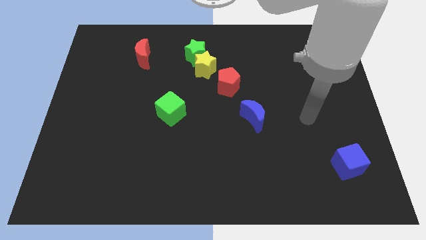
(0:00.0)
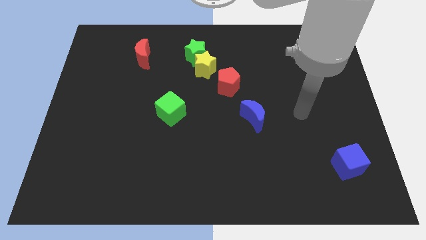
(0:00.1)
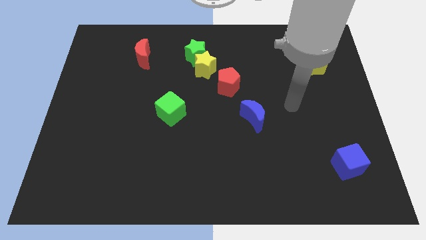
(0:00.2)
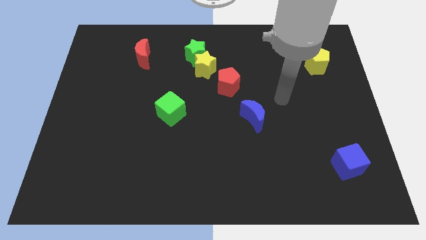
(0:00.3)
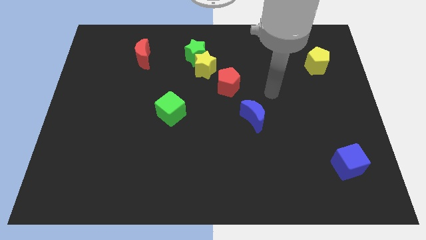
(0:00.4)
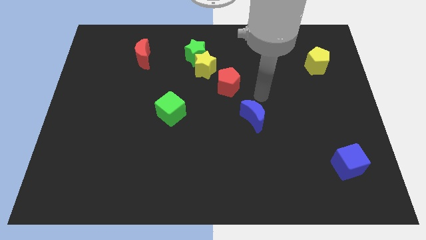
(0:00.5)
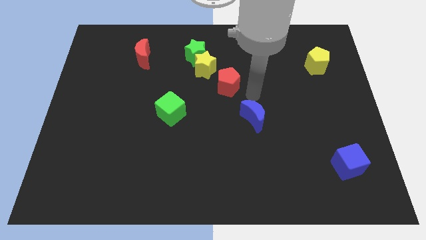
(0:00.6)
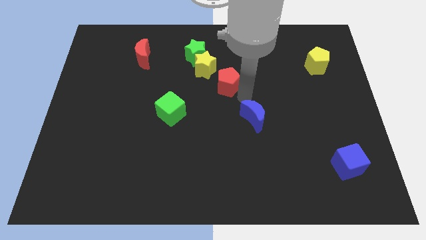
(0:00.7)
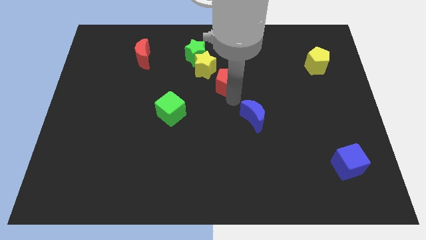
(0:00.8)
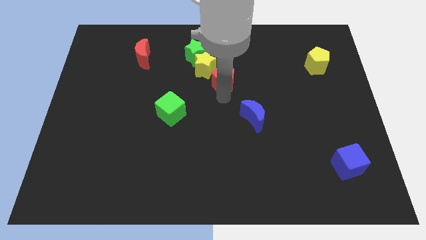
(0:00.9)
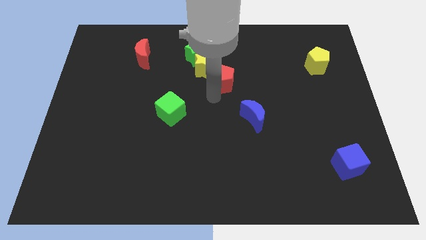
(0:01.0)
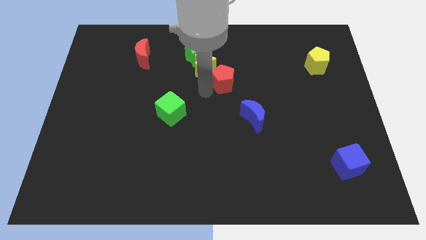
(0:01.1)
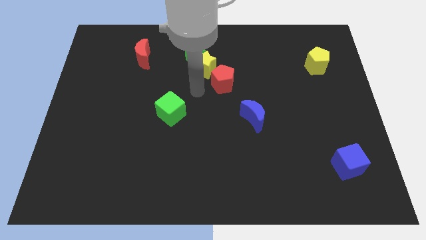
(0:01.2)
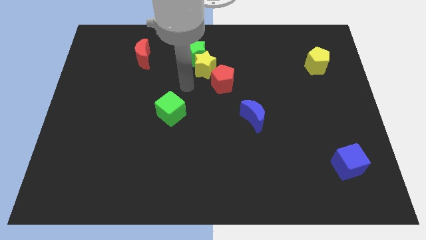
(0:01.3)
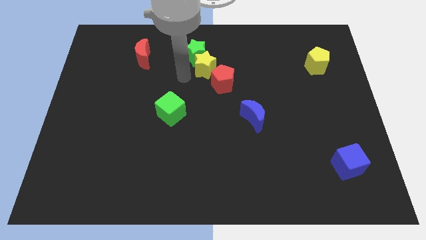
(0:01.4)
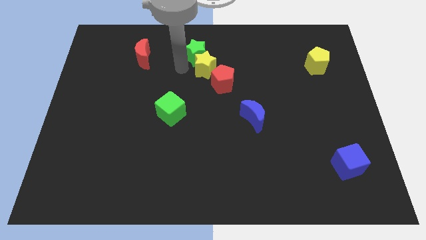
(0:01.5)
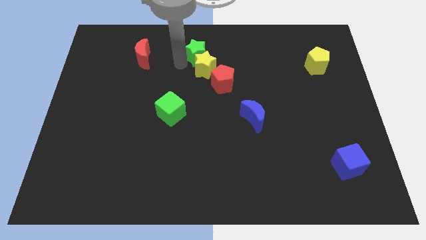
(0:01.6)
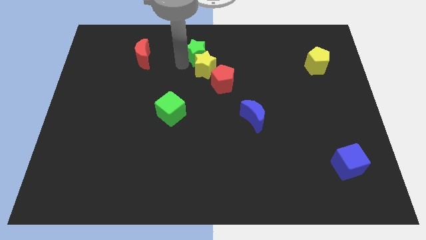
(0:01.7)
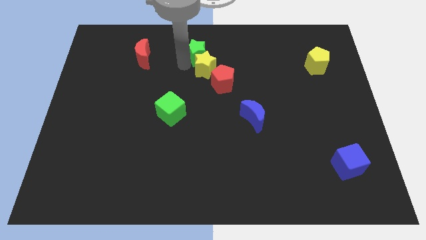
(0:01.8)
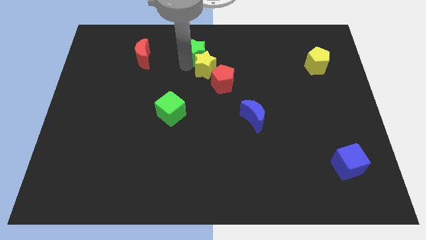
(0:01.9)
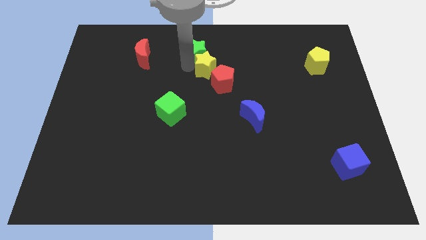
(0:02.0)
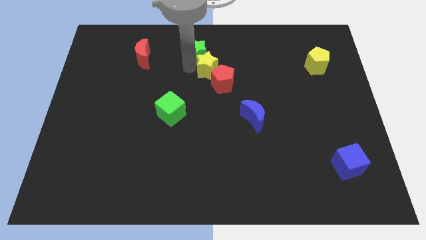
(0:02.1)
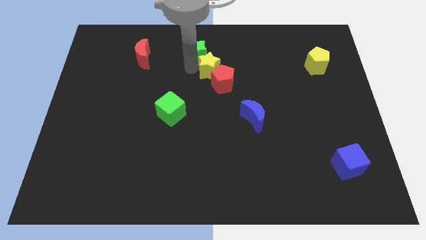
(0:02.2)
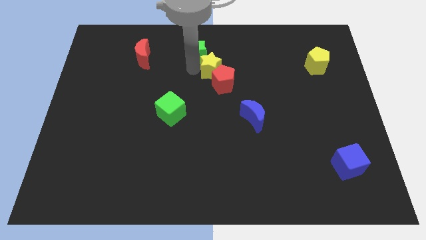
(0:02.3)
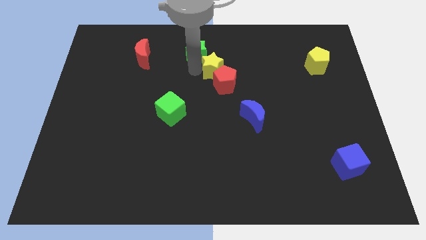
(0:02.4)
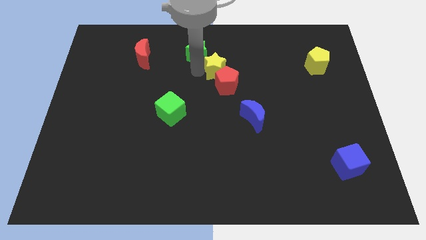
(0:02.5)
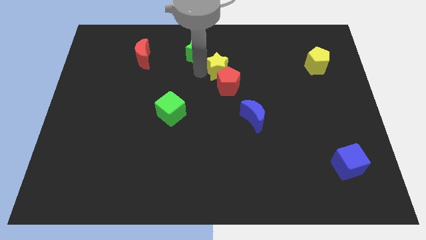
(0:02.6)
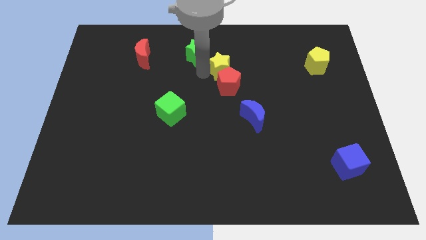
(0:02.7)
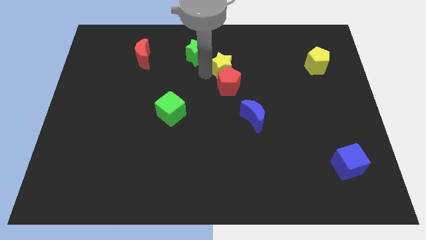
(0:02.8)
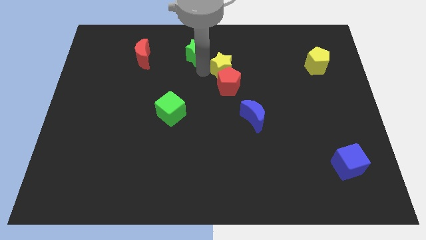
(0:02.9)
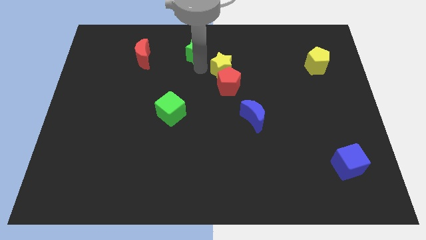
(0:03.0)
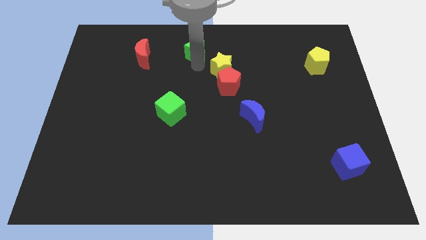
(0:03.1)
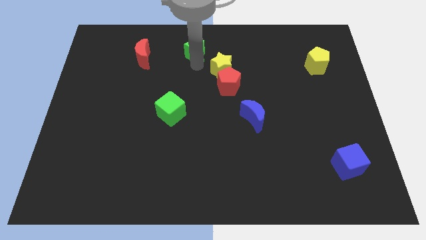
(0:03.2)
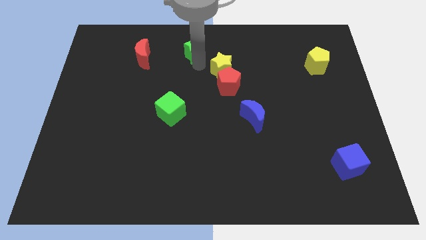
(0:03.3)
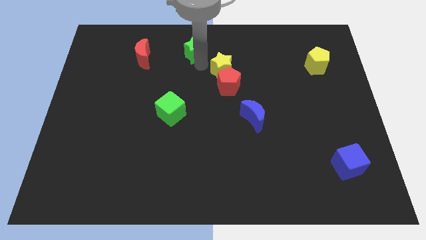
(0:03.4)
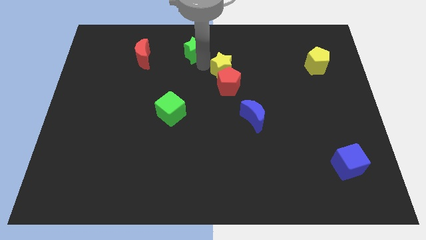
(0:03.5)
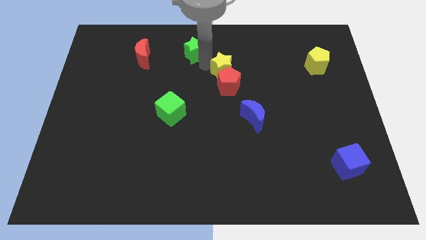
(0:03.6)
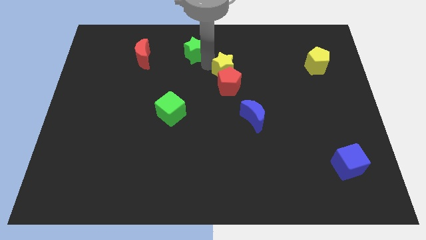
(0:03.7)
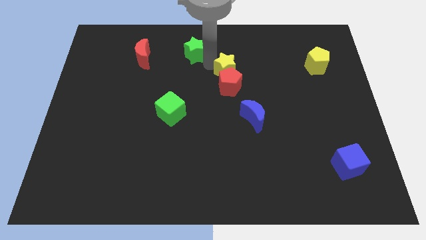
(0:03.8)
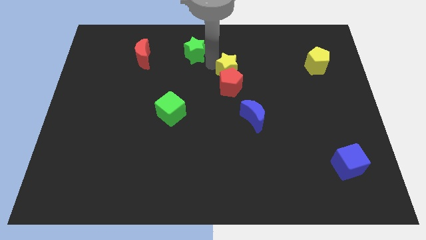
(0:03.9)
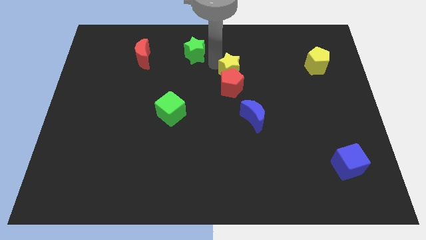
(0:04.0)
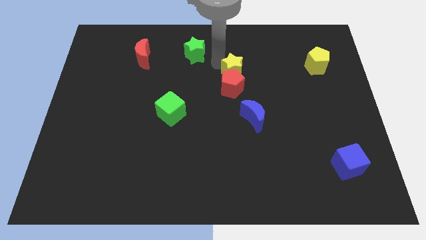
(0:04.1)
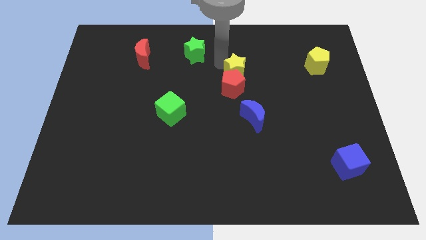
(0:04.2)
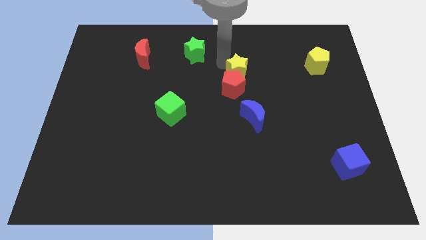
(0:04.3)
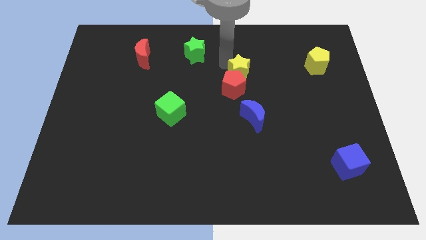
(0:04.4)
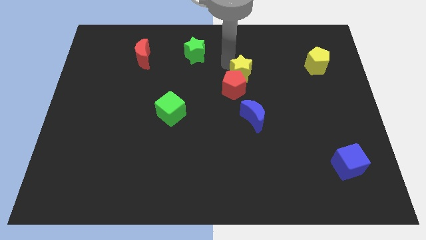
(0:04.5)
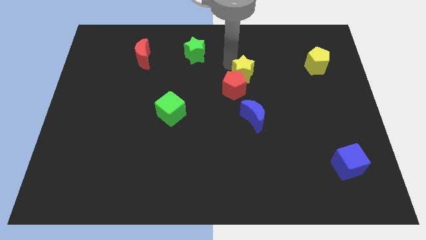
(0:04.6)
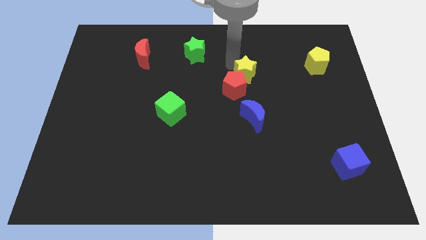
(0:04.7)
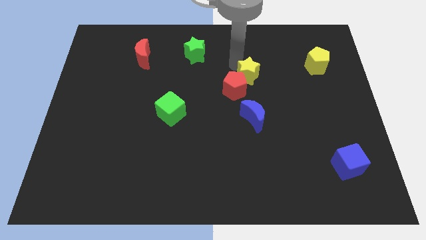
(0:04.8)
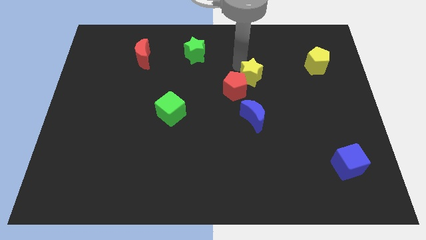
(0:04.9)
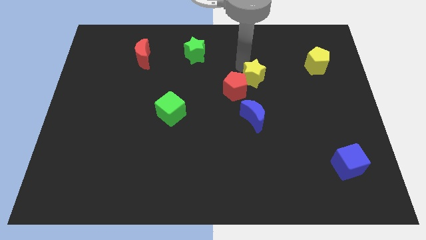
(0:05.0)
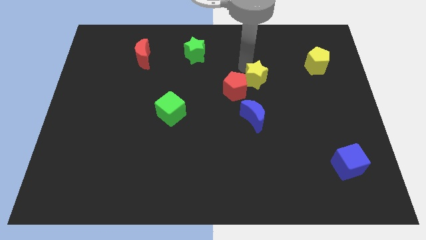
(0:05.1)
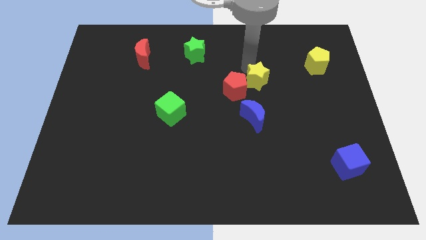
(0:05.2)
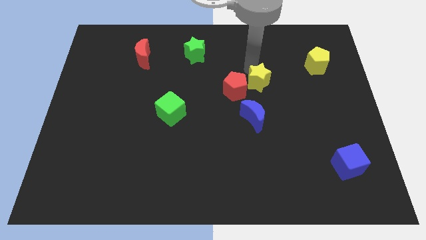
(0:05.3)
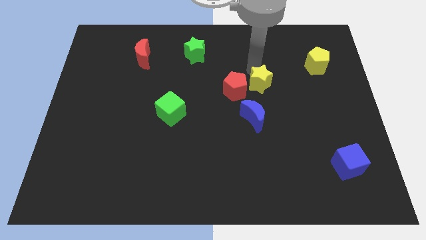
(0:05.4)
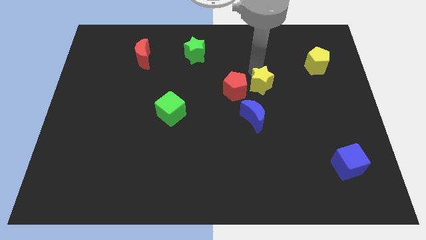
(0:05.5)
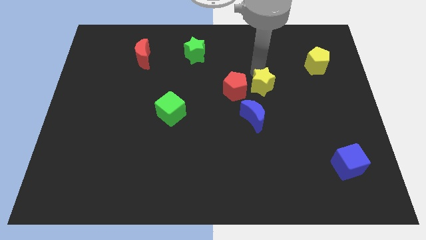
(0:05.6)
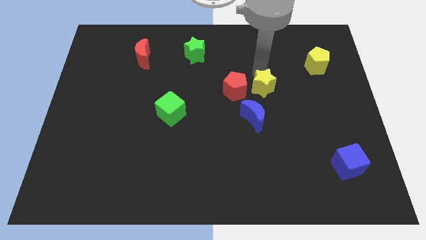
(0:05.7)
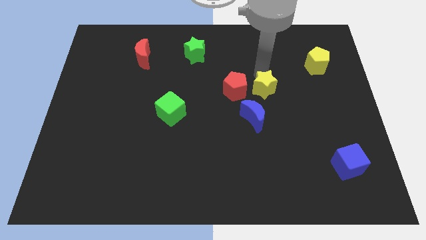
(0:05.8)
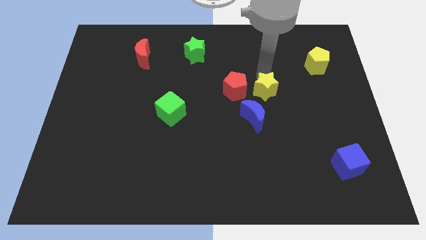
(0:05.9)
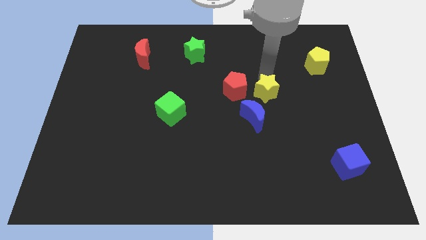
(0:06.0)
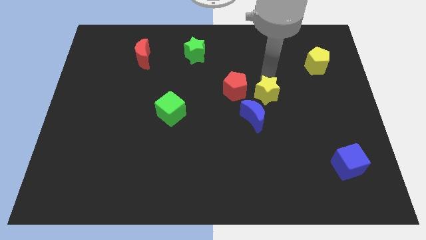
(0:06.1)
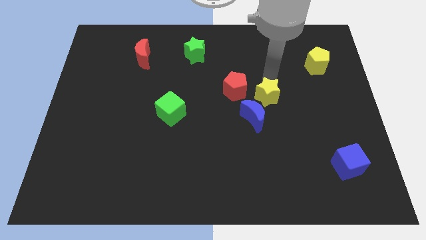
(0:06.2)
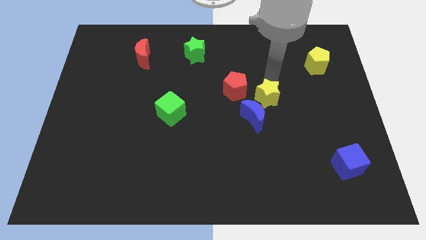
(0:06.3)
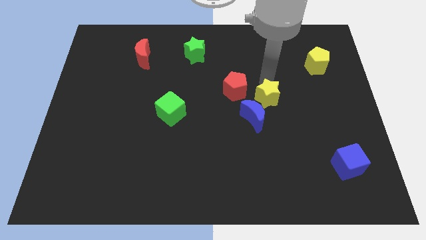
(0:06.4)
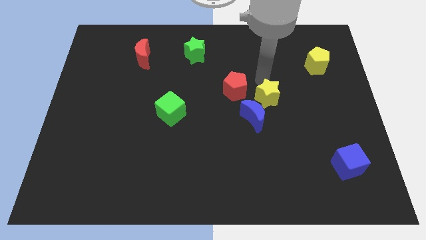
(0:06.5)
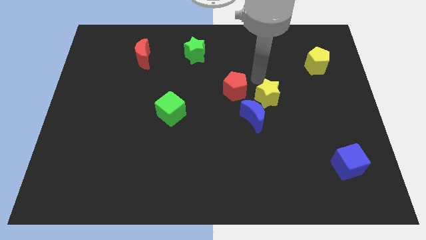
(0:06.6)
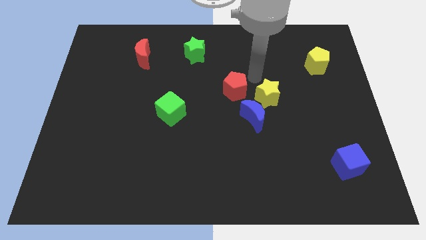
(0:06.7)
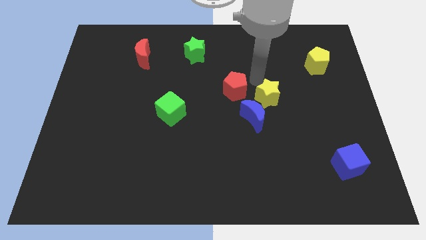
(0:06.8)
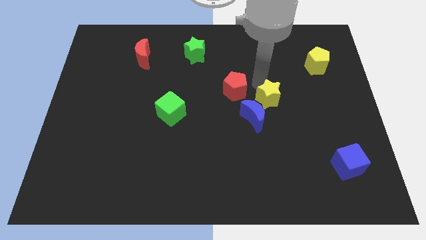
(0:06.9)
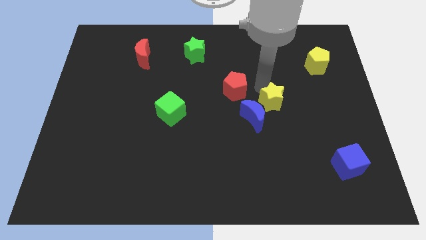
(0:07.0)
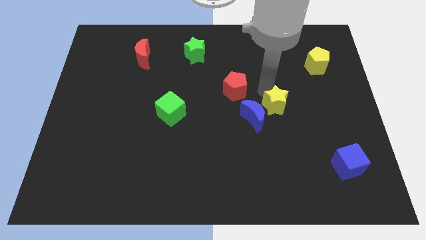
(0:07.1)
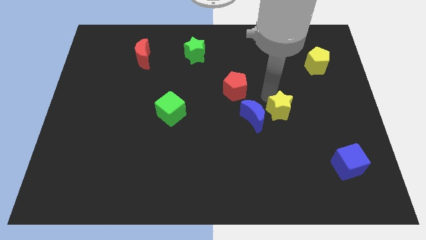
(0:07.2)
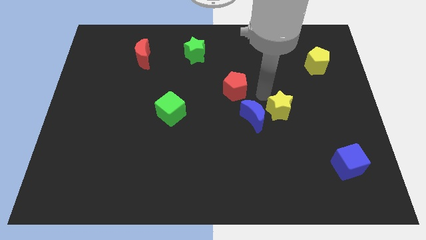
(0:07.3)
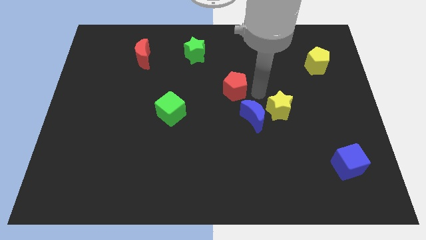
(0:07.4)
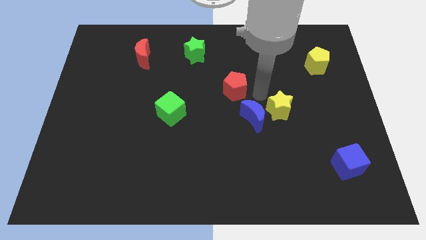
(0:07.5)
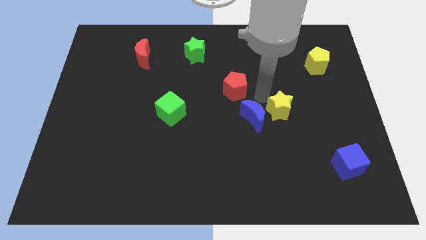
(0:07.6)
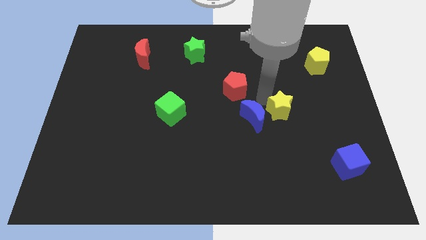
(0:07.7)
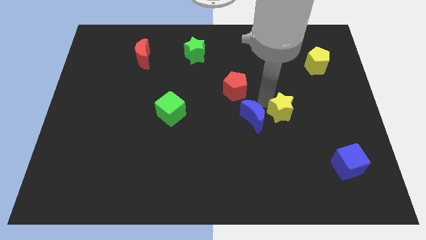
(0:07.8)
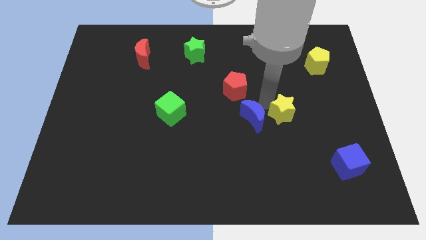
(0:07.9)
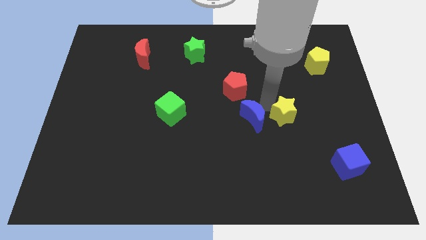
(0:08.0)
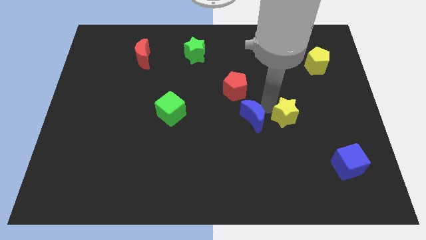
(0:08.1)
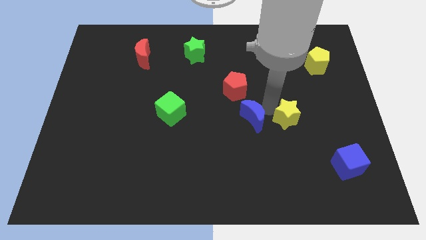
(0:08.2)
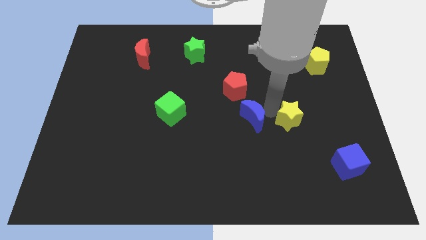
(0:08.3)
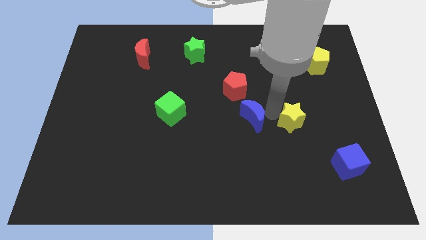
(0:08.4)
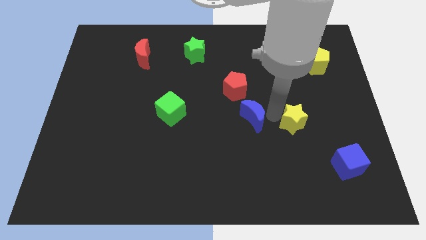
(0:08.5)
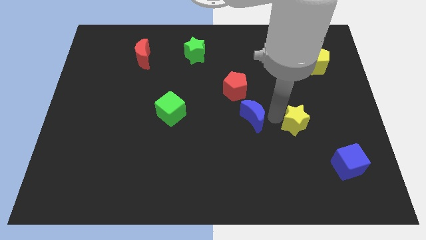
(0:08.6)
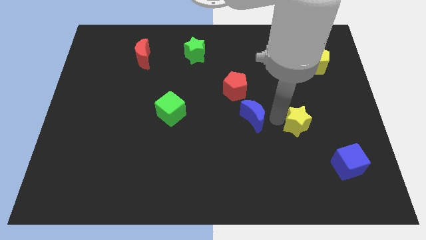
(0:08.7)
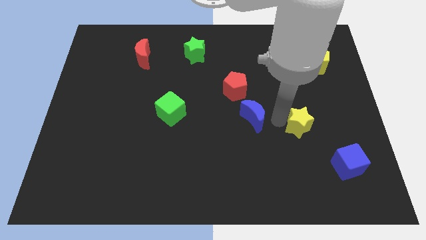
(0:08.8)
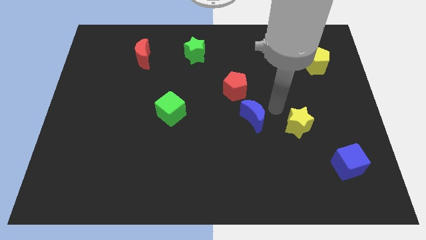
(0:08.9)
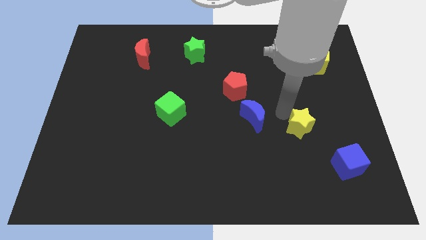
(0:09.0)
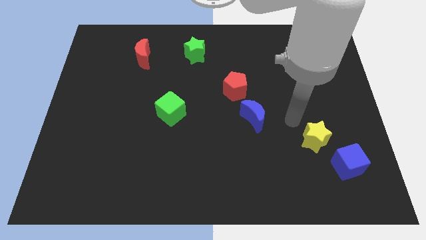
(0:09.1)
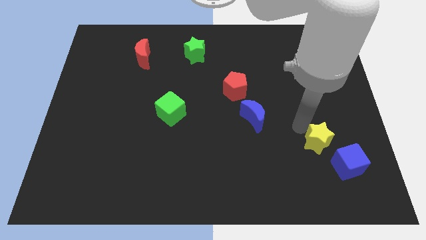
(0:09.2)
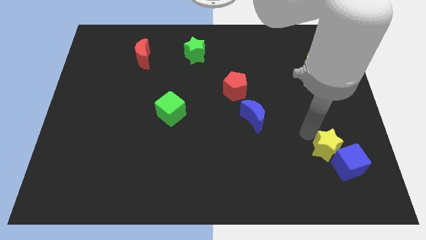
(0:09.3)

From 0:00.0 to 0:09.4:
put the yellow star close to the blue cube
